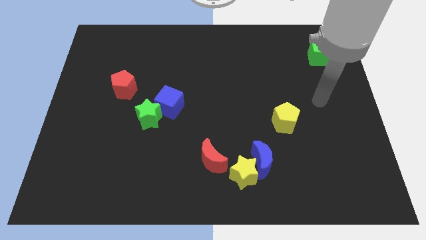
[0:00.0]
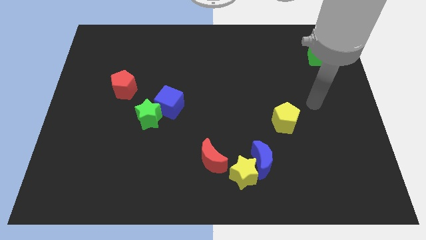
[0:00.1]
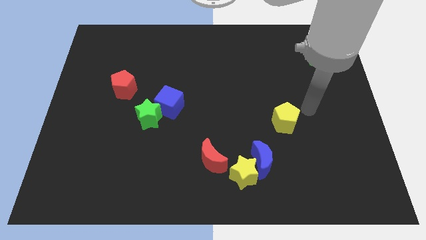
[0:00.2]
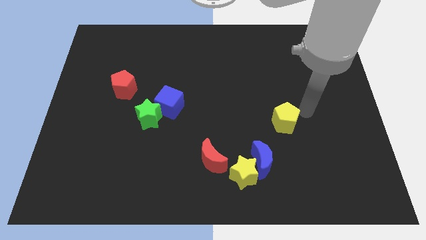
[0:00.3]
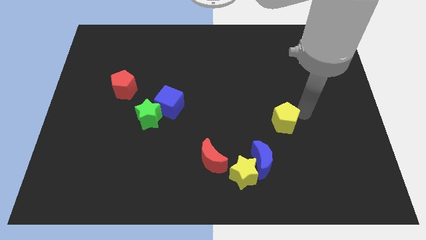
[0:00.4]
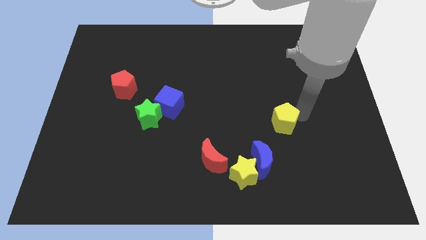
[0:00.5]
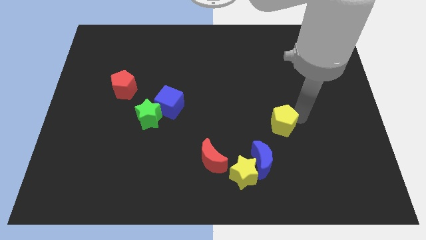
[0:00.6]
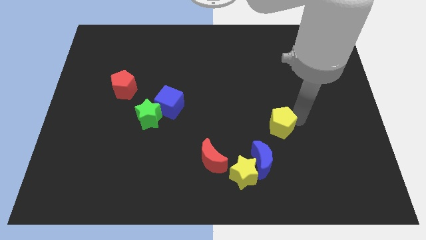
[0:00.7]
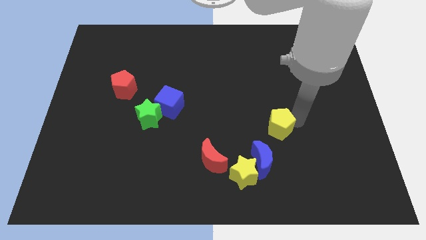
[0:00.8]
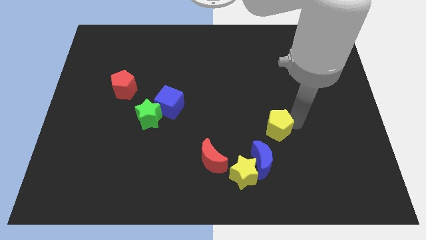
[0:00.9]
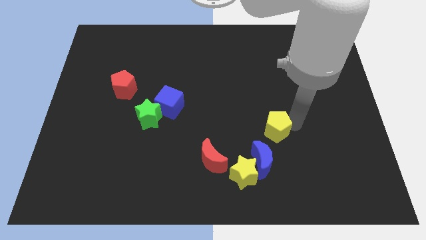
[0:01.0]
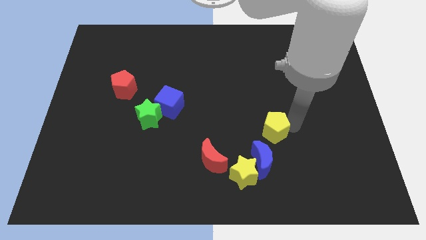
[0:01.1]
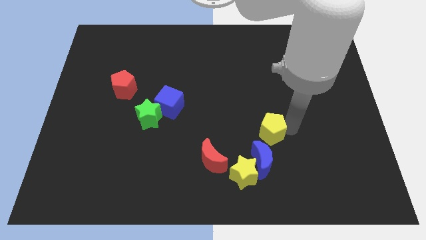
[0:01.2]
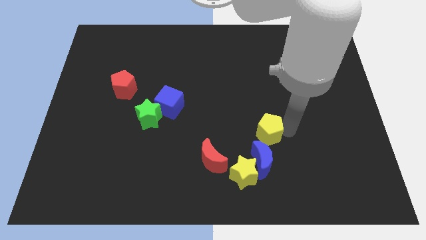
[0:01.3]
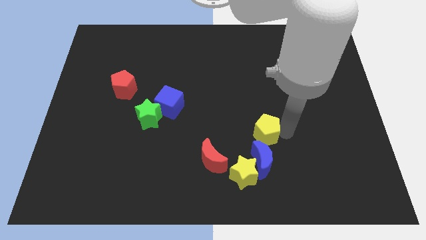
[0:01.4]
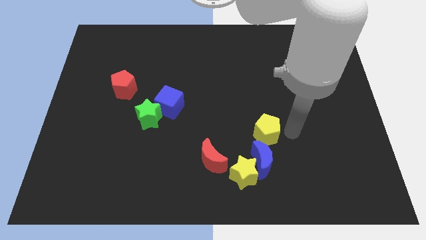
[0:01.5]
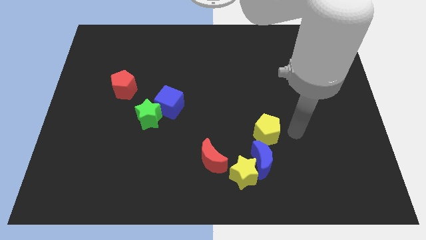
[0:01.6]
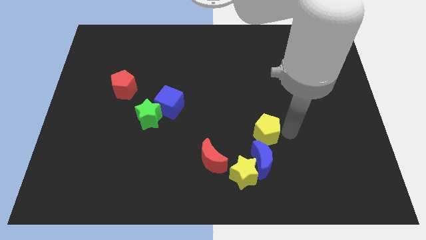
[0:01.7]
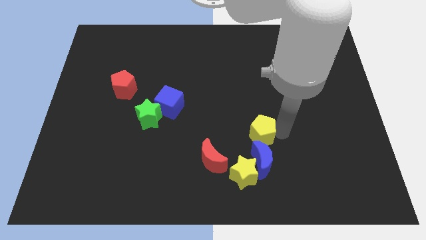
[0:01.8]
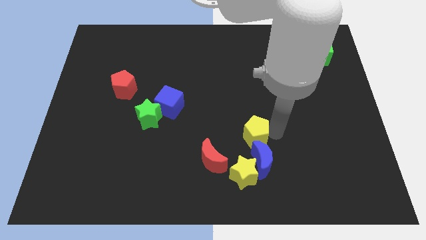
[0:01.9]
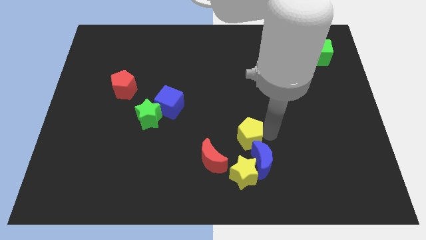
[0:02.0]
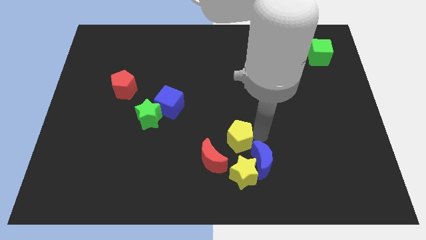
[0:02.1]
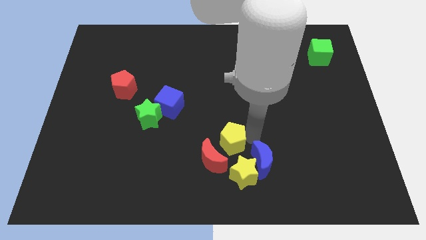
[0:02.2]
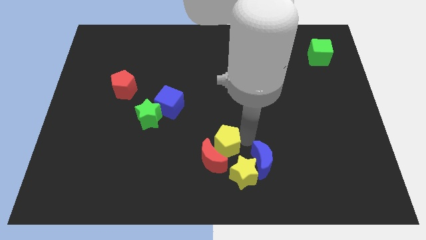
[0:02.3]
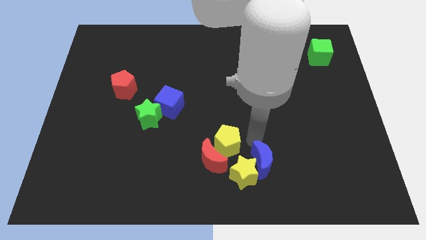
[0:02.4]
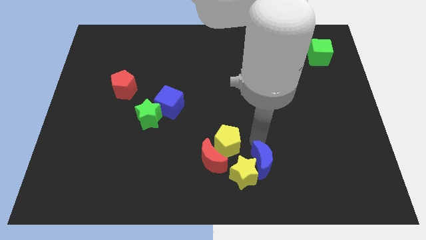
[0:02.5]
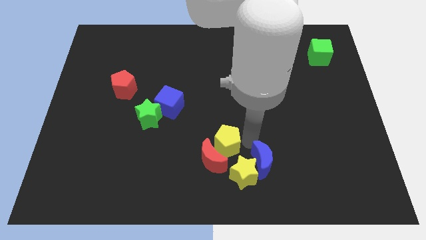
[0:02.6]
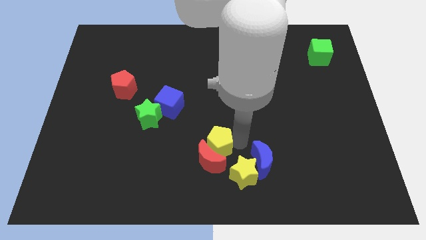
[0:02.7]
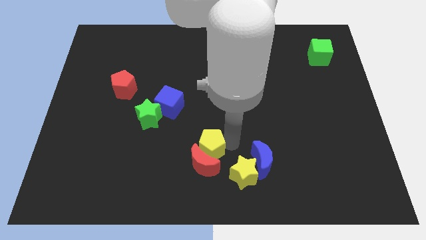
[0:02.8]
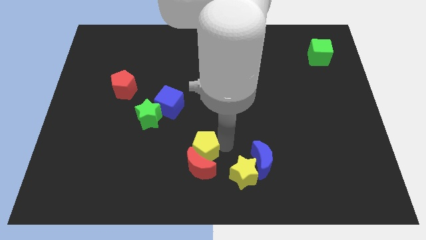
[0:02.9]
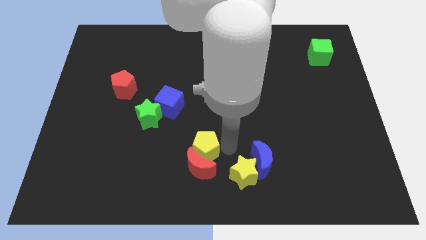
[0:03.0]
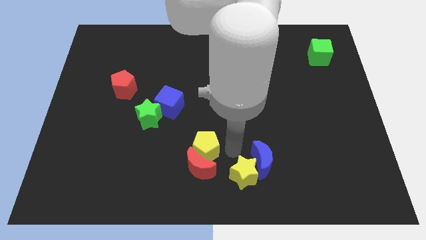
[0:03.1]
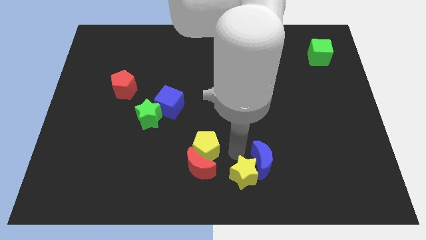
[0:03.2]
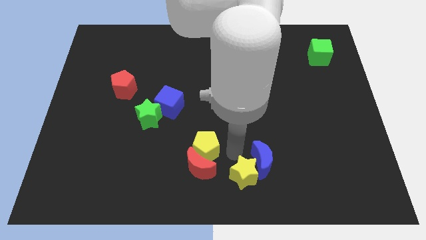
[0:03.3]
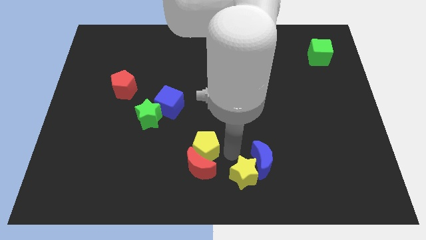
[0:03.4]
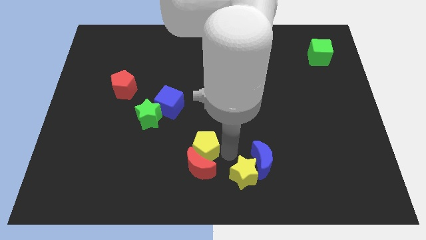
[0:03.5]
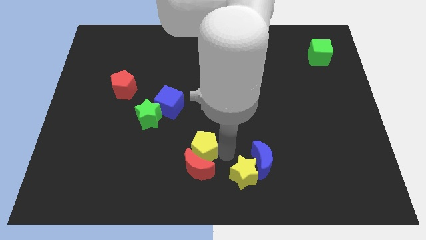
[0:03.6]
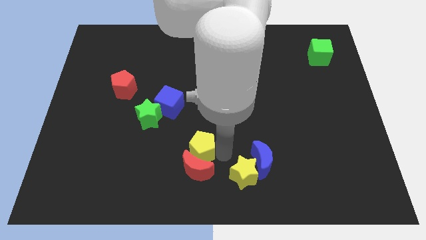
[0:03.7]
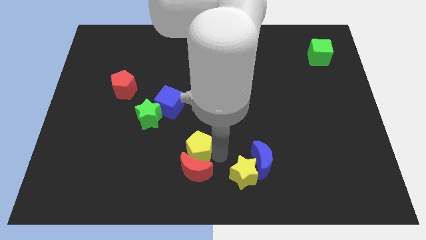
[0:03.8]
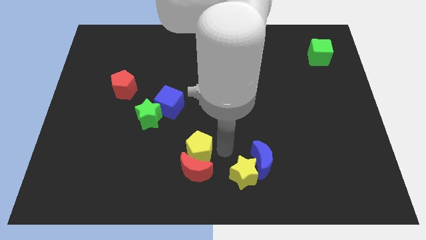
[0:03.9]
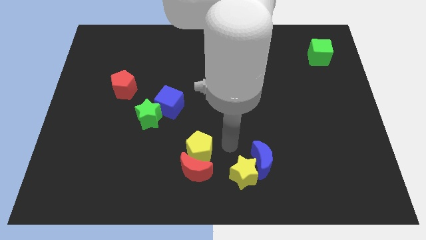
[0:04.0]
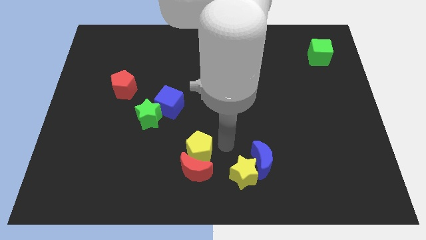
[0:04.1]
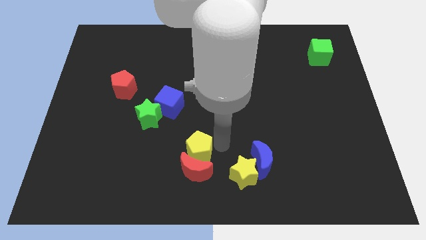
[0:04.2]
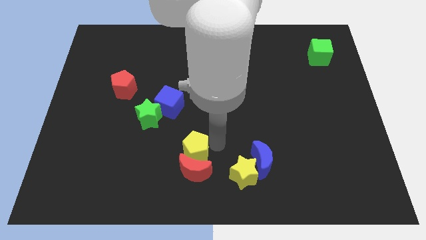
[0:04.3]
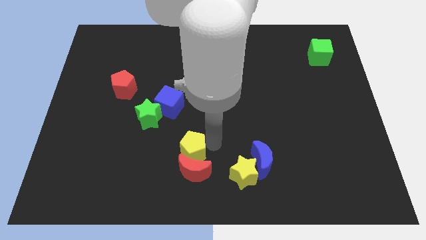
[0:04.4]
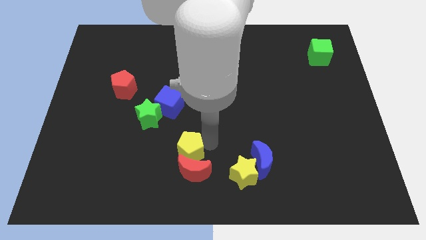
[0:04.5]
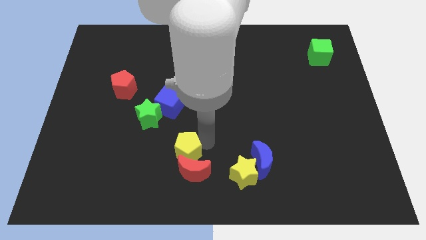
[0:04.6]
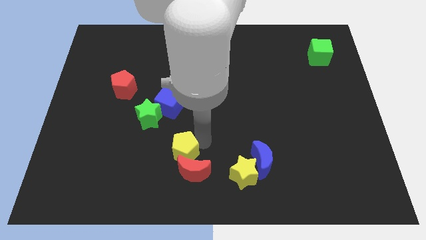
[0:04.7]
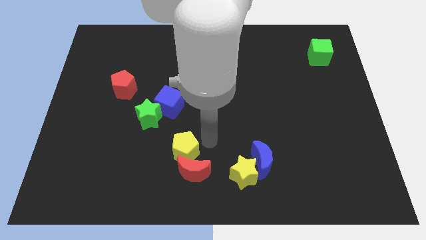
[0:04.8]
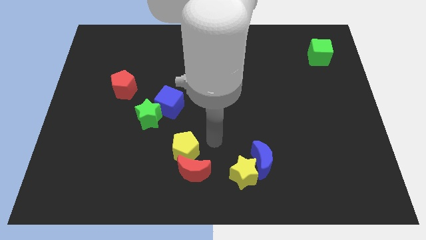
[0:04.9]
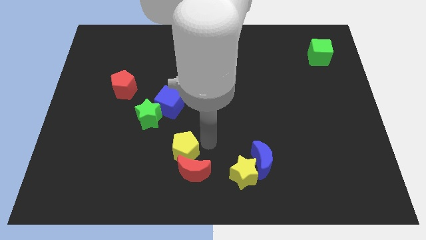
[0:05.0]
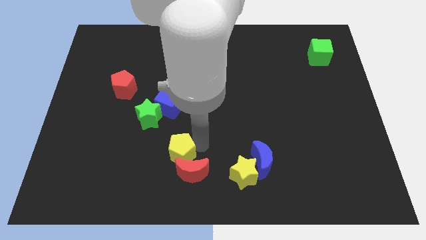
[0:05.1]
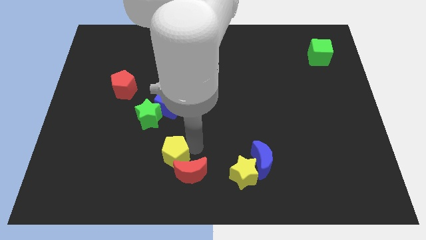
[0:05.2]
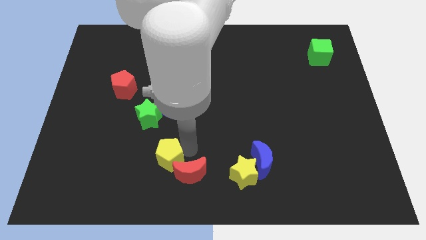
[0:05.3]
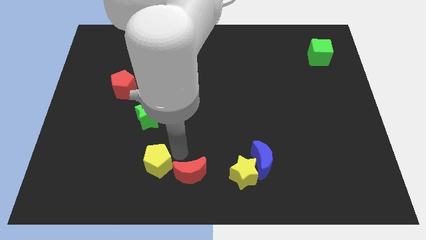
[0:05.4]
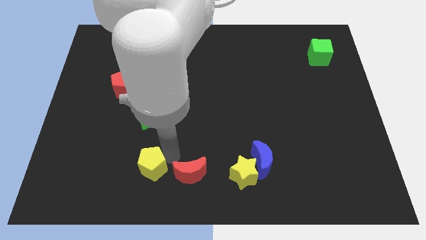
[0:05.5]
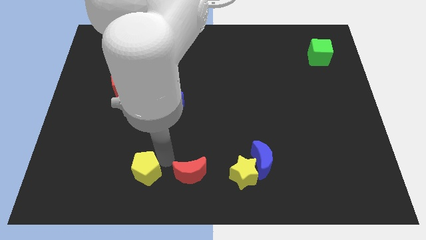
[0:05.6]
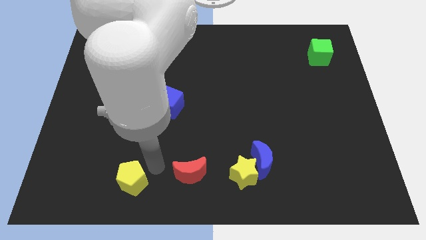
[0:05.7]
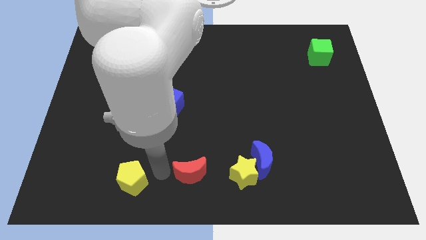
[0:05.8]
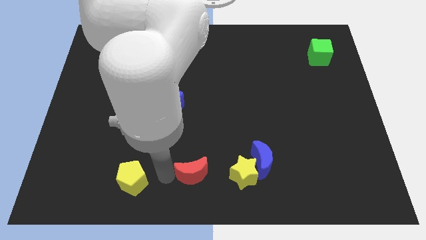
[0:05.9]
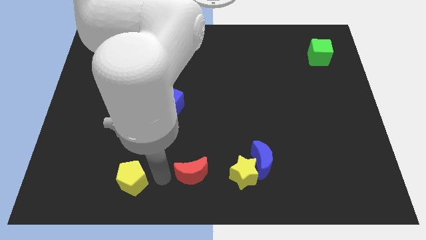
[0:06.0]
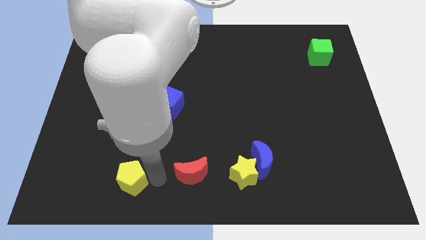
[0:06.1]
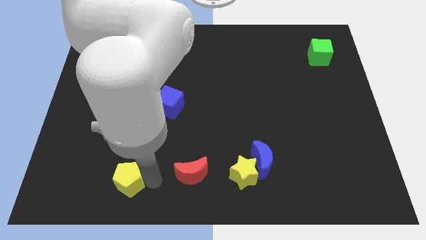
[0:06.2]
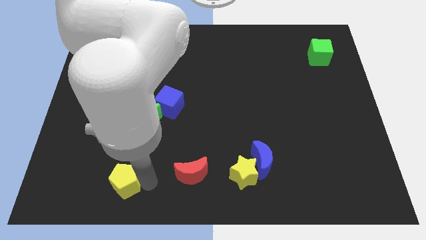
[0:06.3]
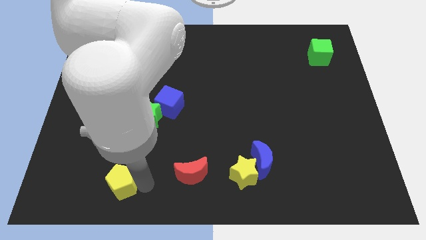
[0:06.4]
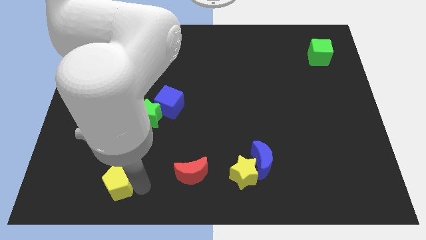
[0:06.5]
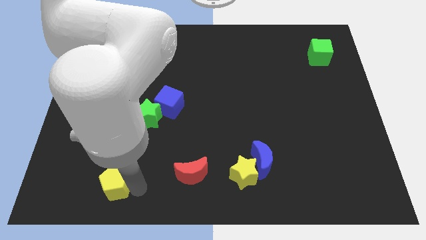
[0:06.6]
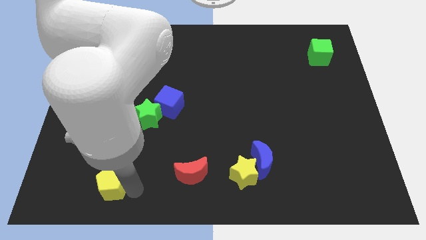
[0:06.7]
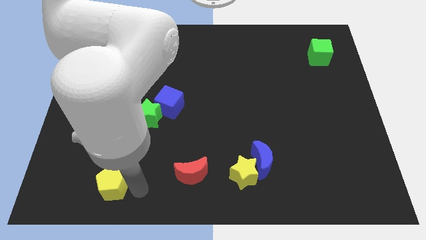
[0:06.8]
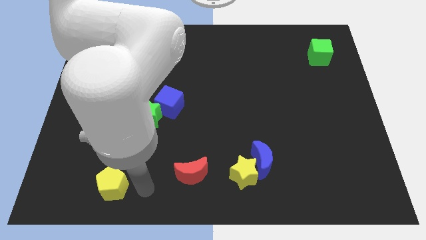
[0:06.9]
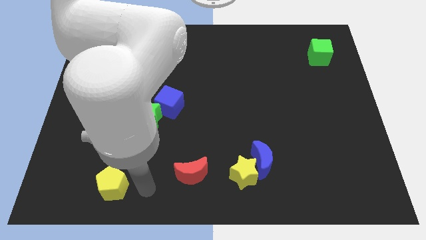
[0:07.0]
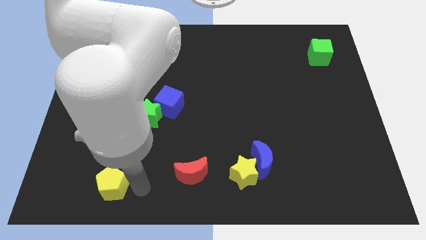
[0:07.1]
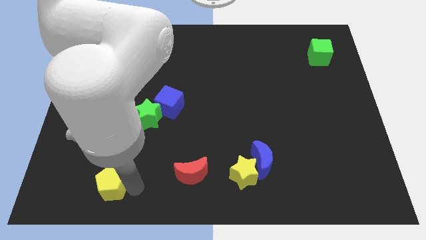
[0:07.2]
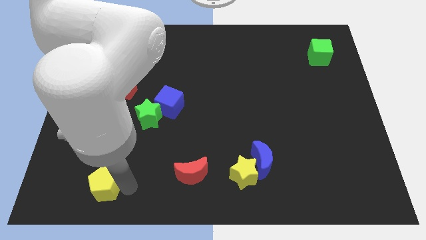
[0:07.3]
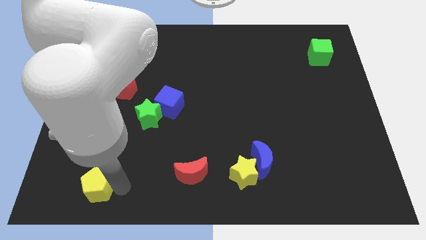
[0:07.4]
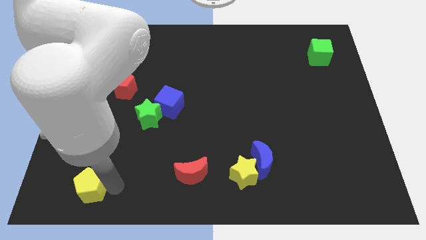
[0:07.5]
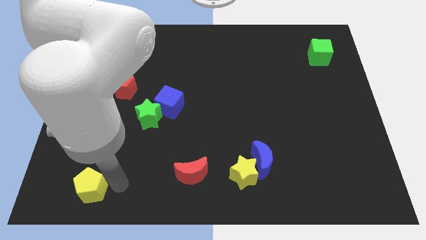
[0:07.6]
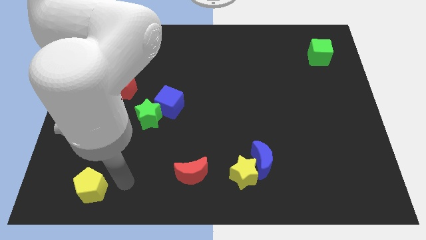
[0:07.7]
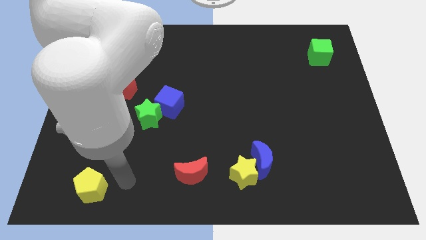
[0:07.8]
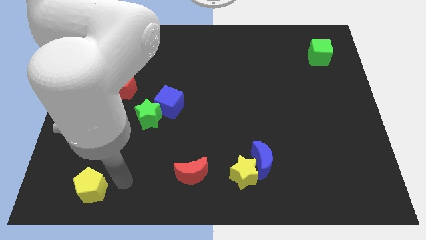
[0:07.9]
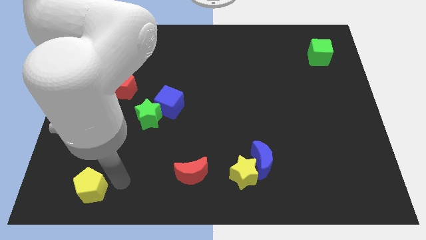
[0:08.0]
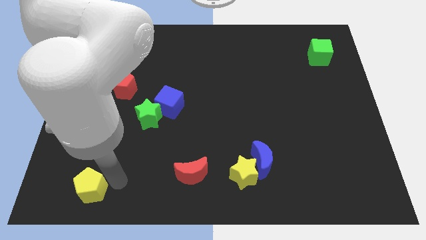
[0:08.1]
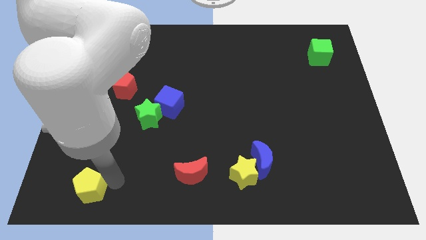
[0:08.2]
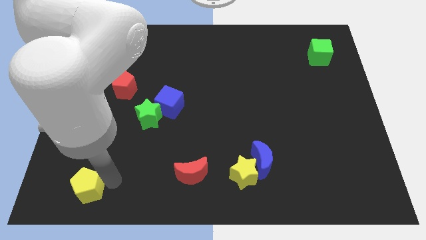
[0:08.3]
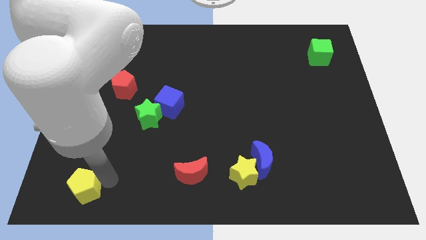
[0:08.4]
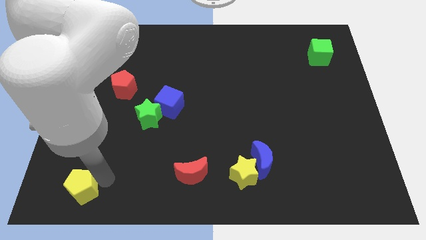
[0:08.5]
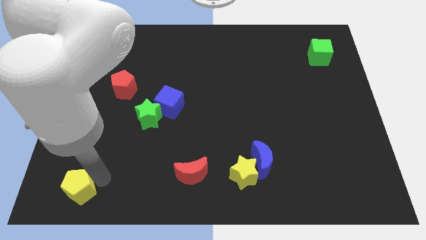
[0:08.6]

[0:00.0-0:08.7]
slide the yellow pentagon to the bottom left of the board
